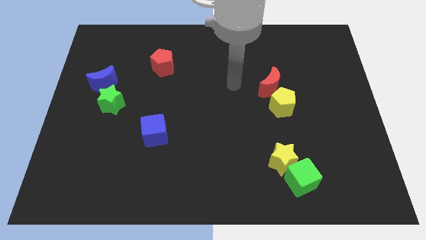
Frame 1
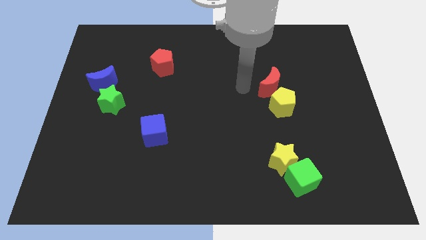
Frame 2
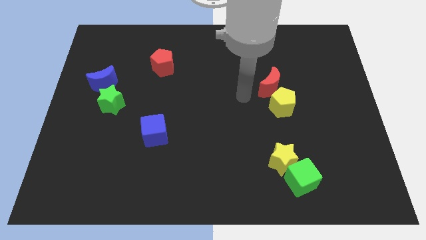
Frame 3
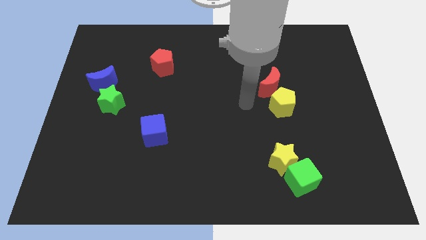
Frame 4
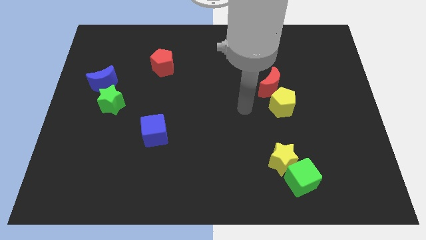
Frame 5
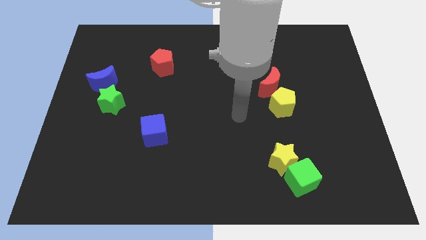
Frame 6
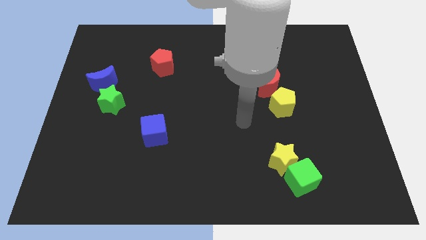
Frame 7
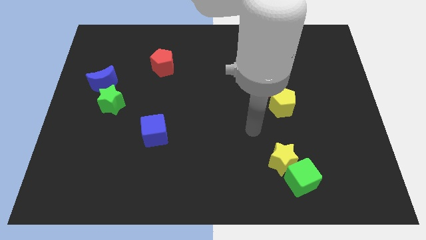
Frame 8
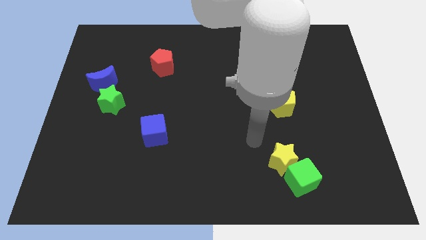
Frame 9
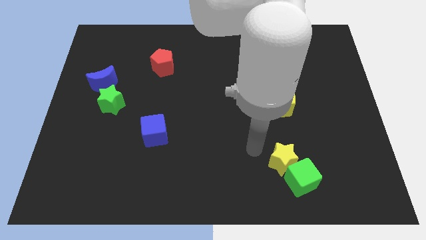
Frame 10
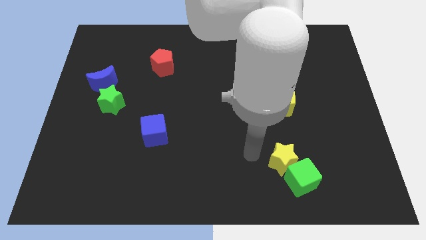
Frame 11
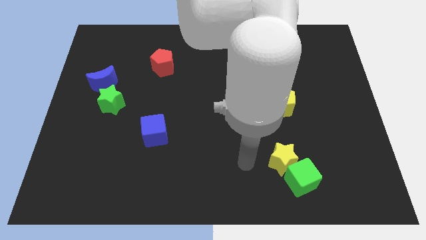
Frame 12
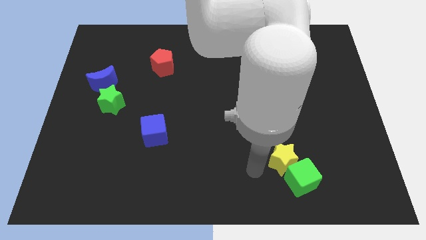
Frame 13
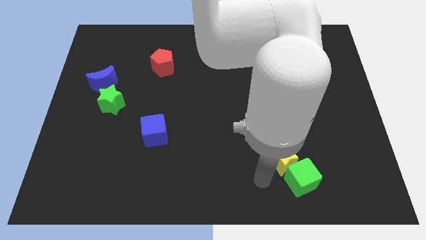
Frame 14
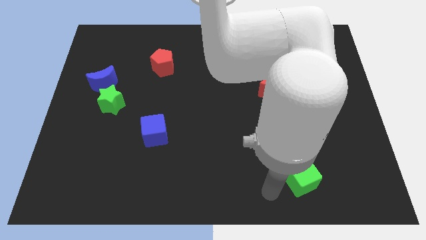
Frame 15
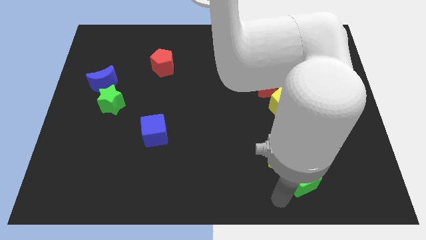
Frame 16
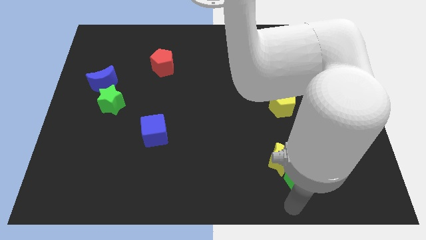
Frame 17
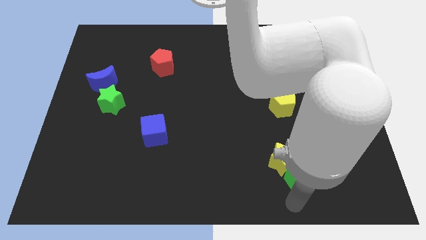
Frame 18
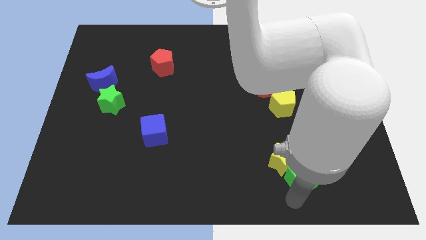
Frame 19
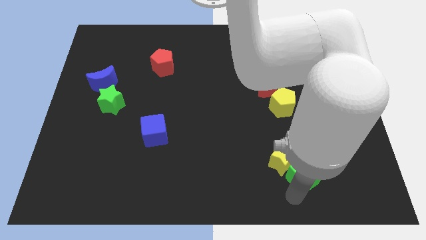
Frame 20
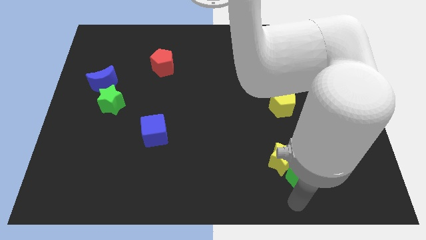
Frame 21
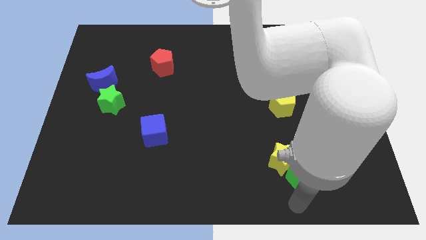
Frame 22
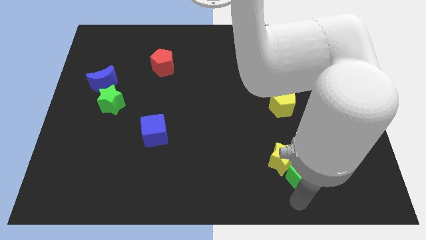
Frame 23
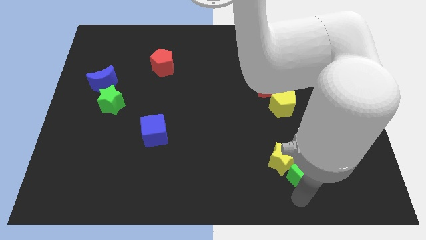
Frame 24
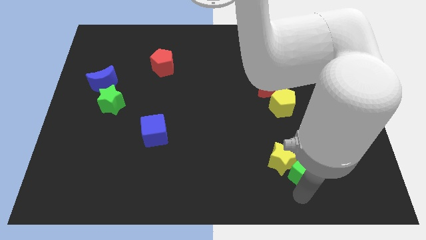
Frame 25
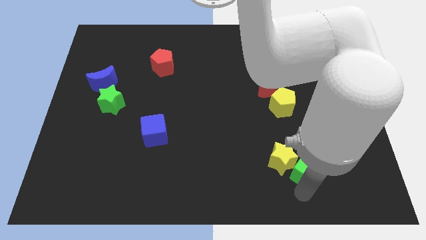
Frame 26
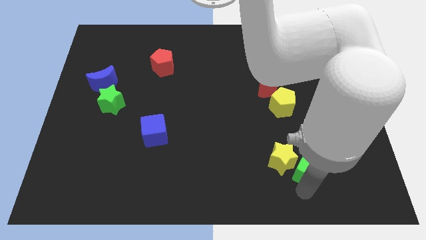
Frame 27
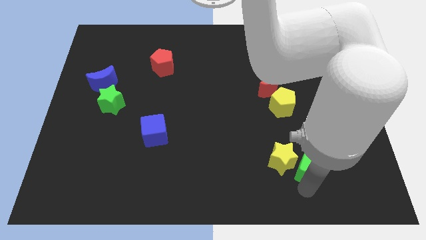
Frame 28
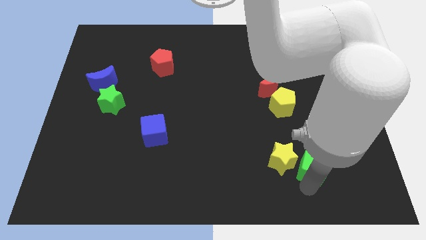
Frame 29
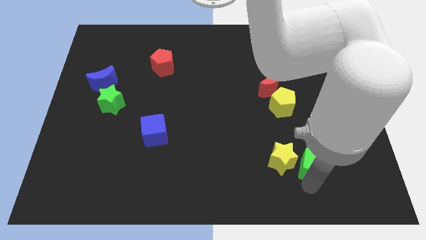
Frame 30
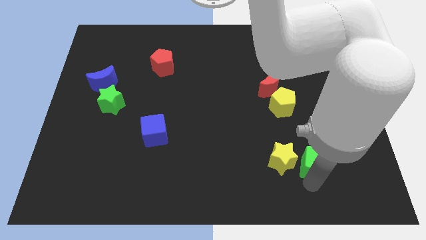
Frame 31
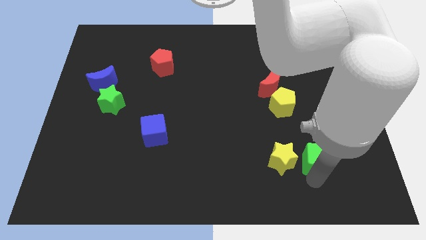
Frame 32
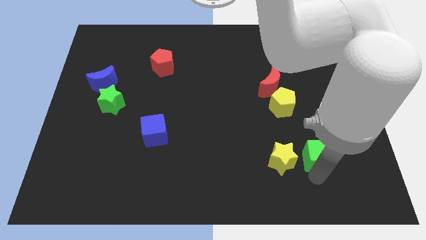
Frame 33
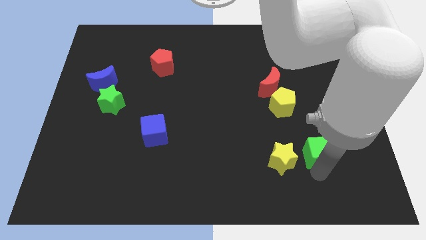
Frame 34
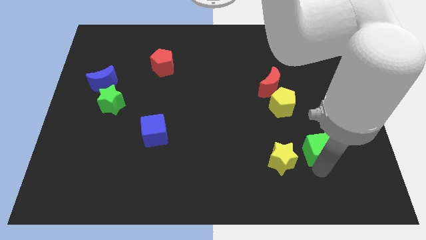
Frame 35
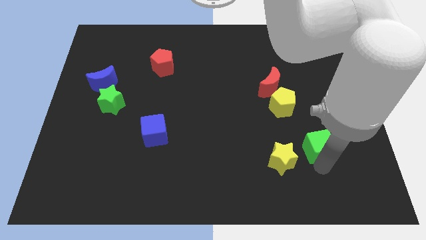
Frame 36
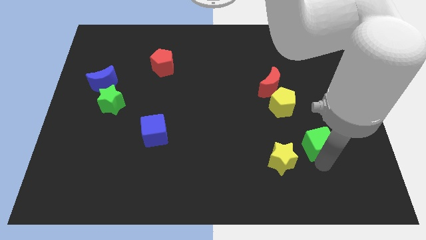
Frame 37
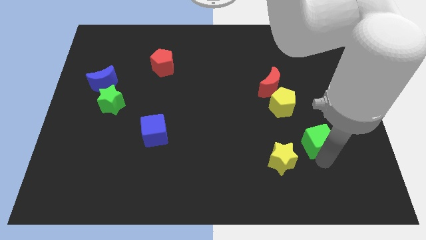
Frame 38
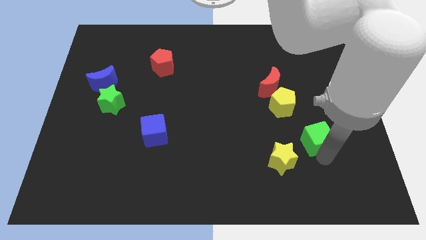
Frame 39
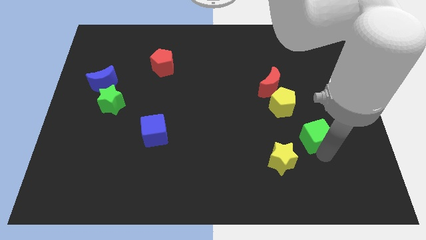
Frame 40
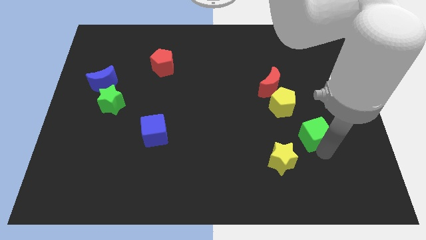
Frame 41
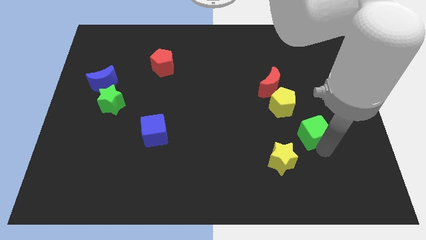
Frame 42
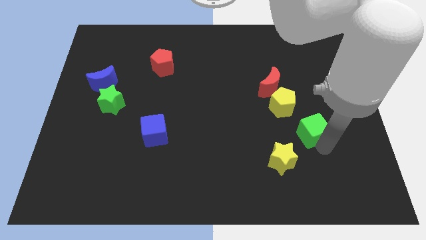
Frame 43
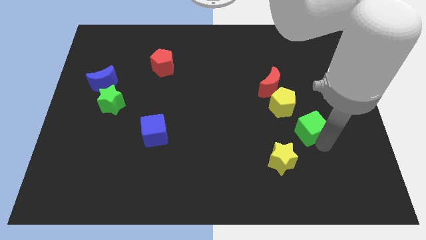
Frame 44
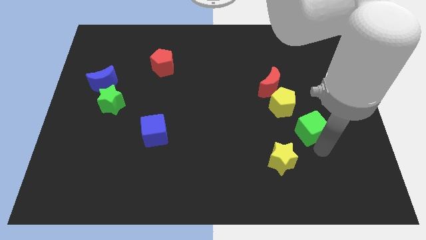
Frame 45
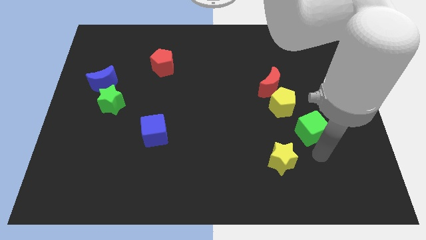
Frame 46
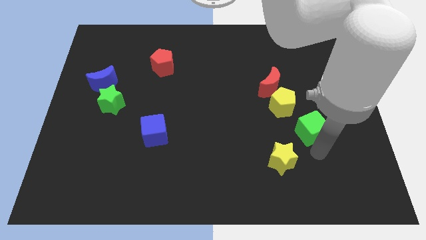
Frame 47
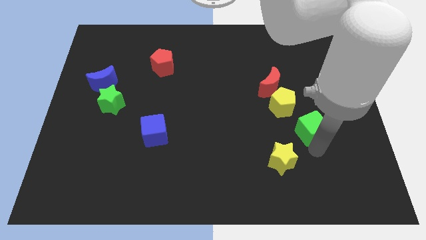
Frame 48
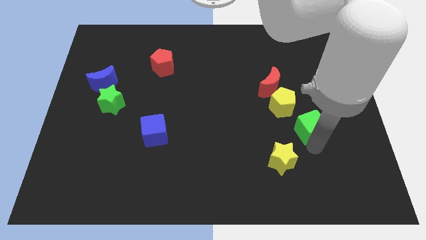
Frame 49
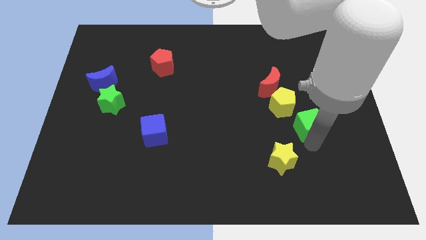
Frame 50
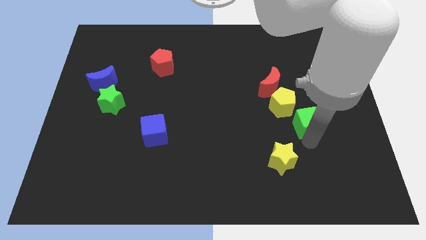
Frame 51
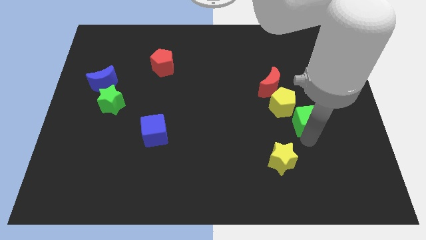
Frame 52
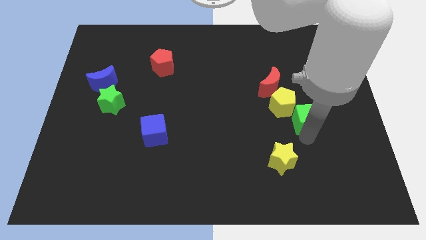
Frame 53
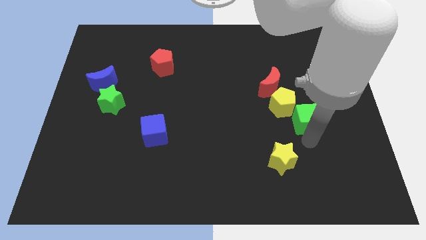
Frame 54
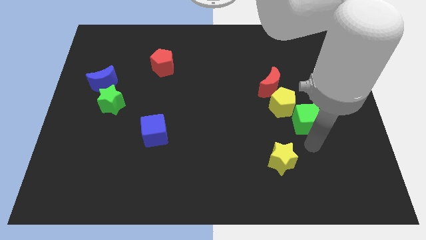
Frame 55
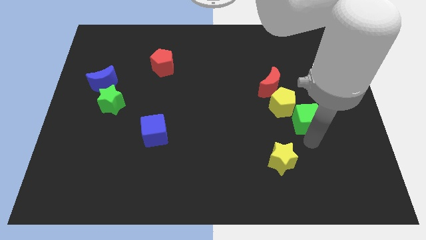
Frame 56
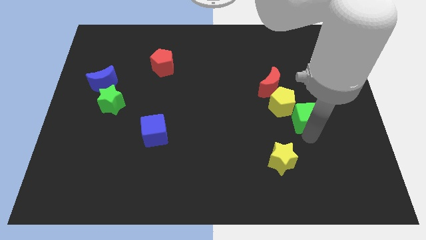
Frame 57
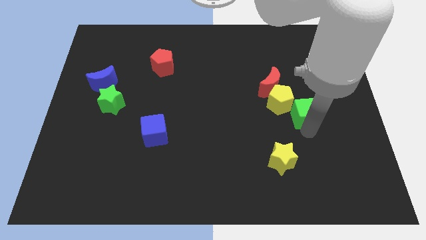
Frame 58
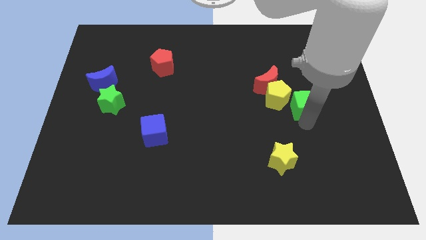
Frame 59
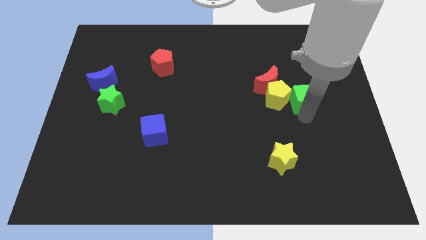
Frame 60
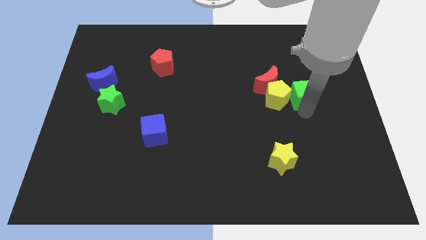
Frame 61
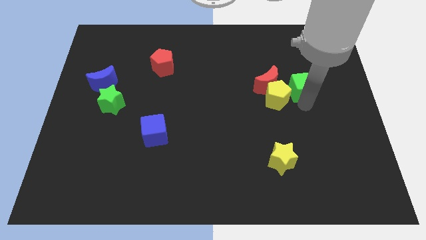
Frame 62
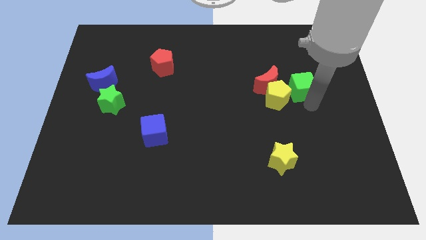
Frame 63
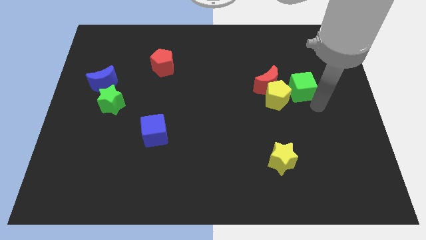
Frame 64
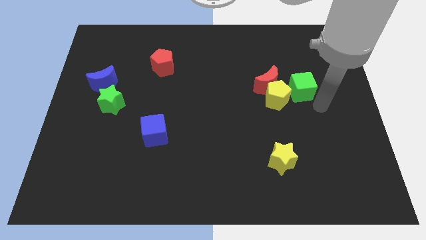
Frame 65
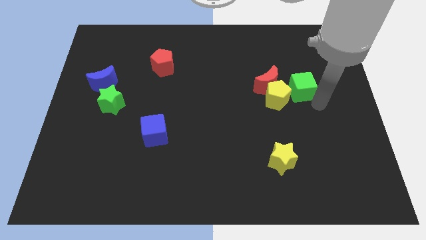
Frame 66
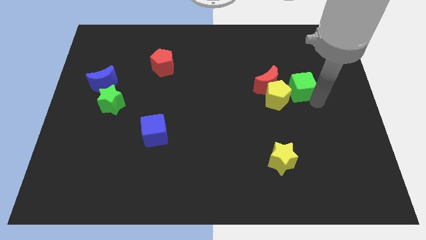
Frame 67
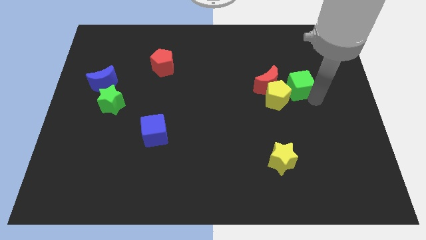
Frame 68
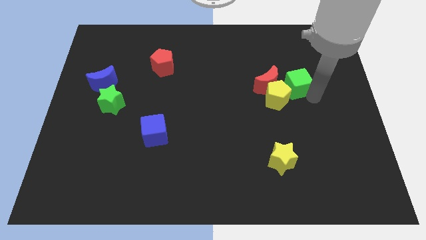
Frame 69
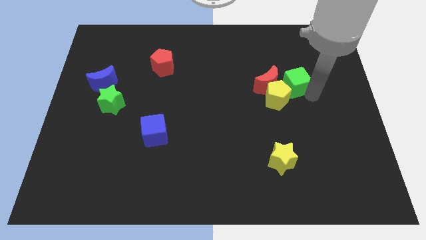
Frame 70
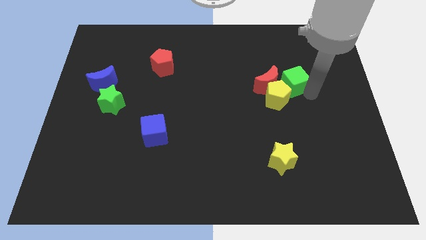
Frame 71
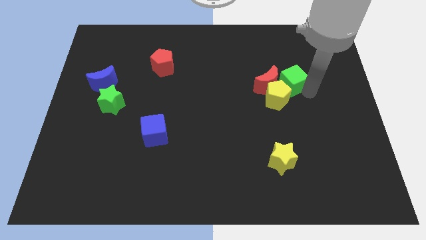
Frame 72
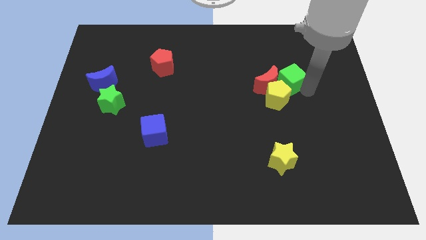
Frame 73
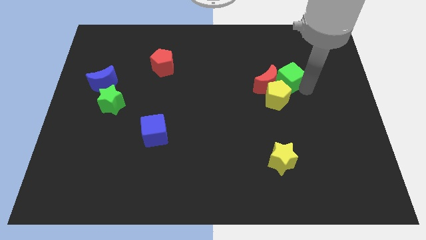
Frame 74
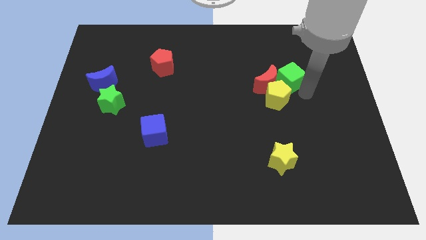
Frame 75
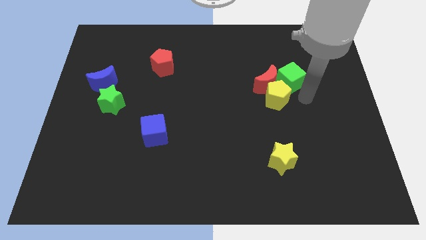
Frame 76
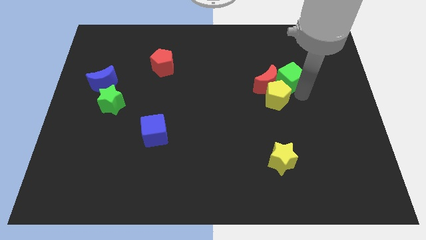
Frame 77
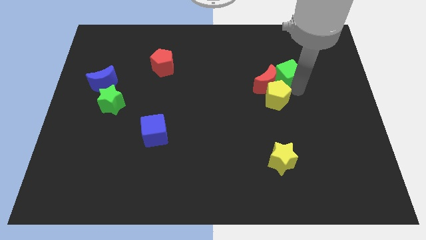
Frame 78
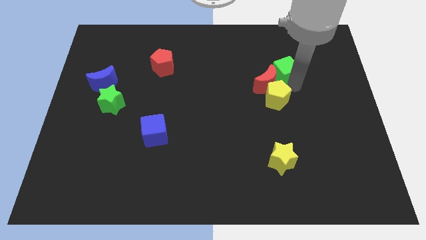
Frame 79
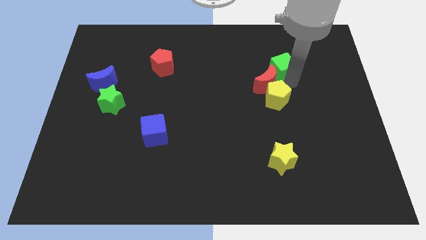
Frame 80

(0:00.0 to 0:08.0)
put the green cube to the top of the red moon

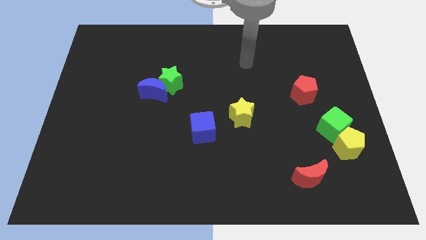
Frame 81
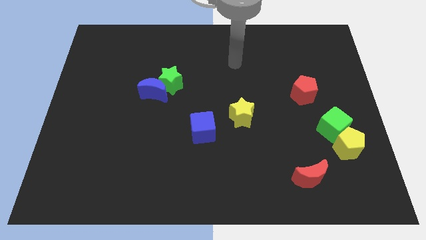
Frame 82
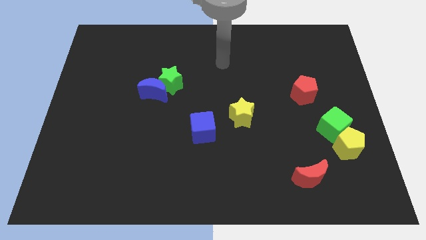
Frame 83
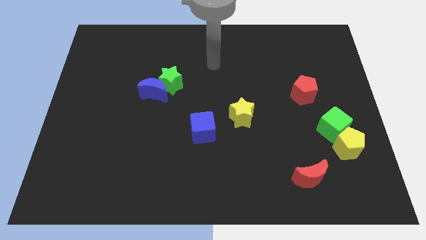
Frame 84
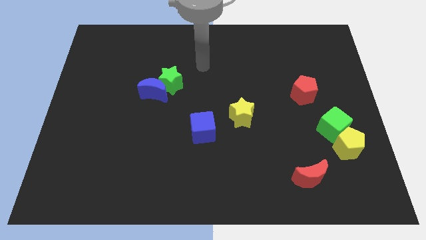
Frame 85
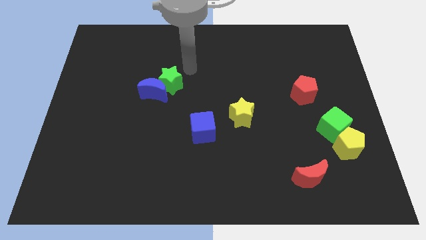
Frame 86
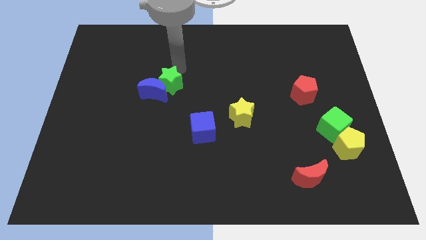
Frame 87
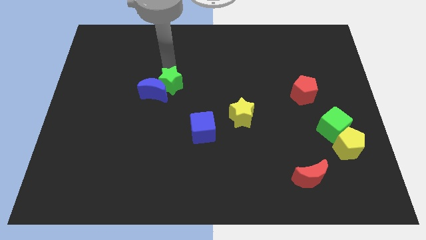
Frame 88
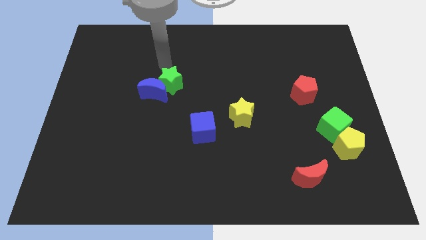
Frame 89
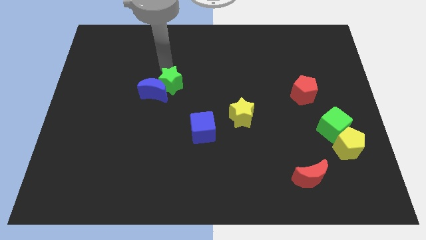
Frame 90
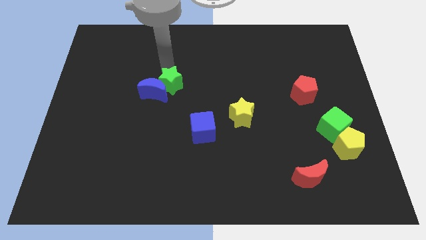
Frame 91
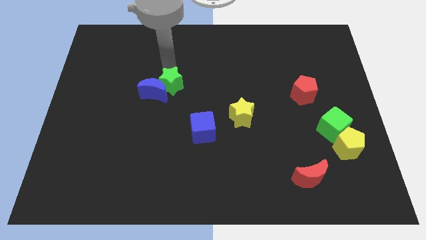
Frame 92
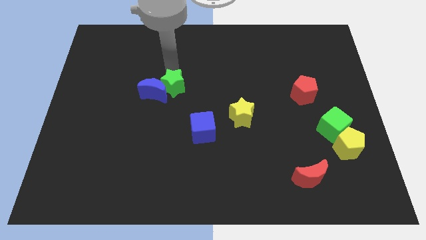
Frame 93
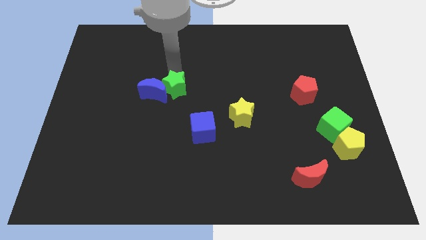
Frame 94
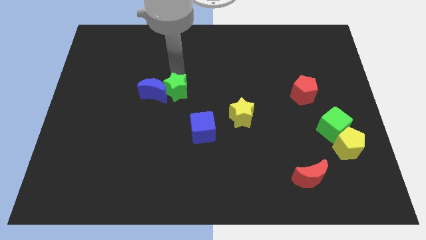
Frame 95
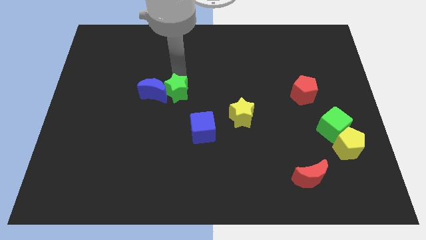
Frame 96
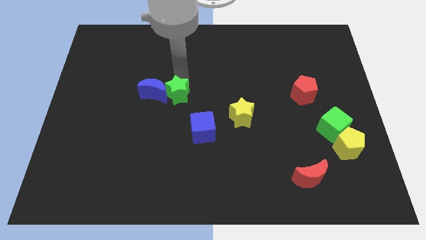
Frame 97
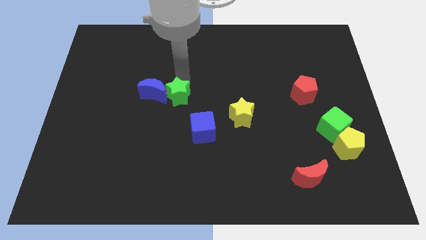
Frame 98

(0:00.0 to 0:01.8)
slide the green star diagonally up and to the left of the blue cube
